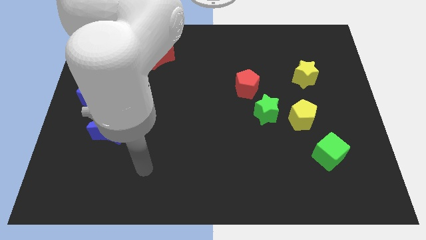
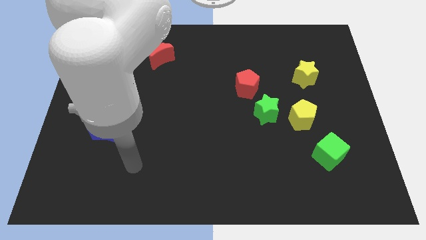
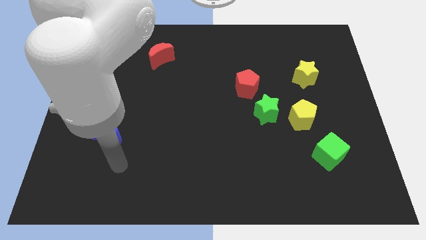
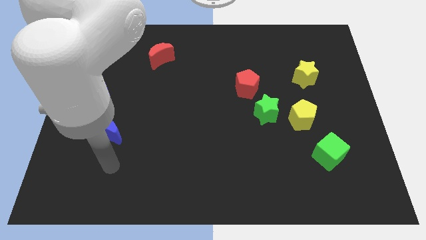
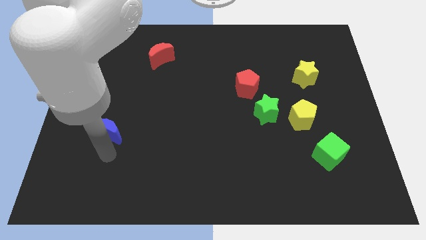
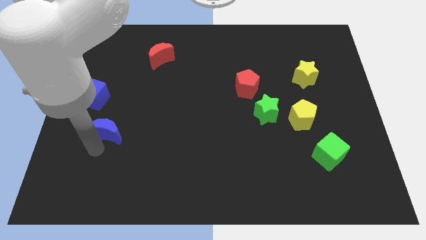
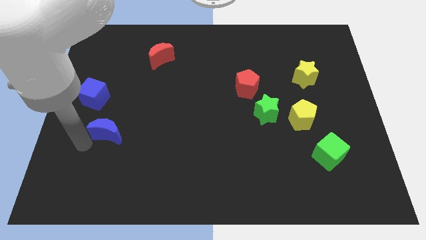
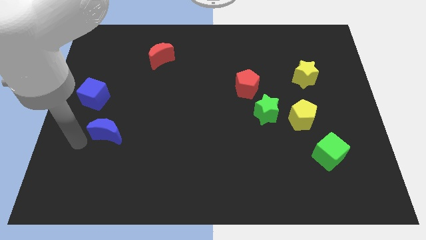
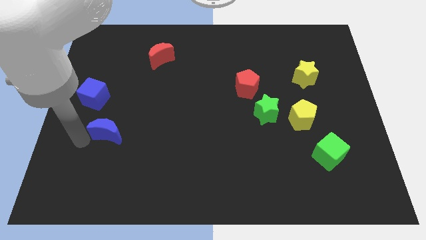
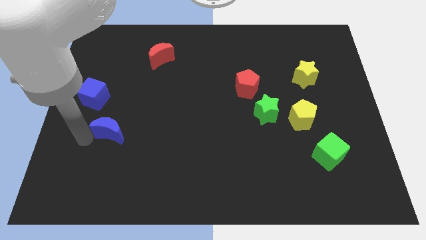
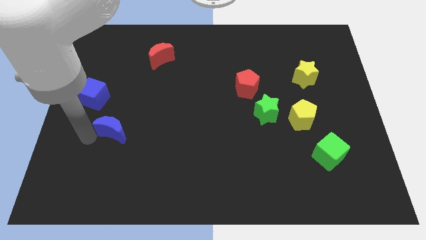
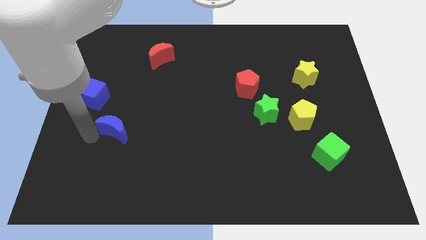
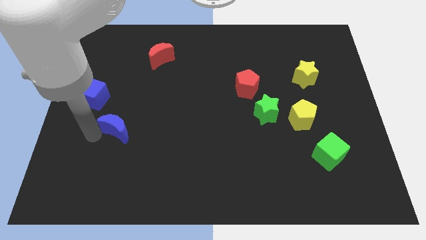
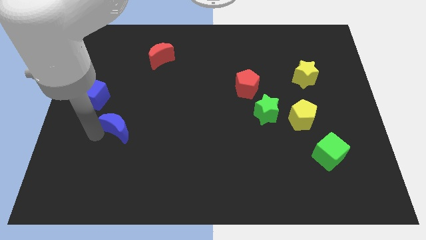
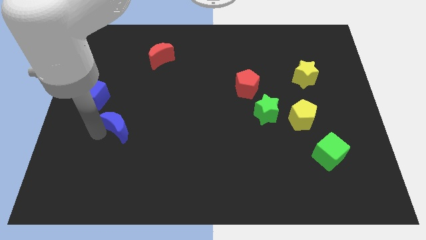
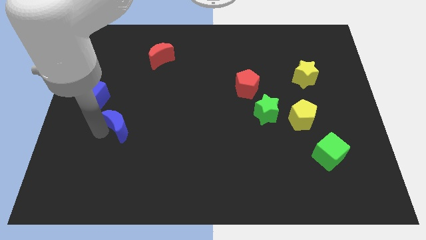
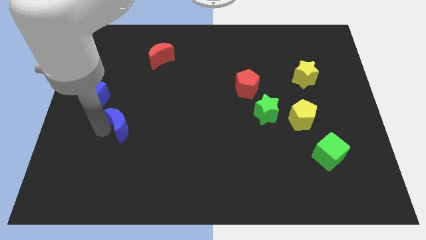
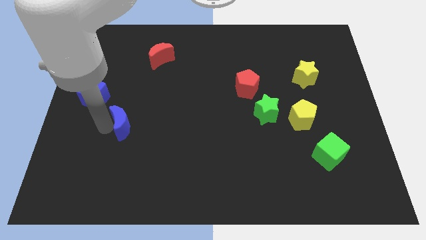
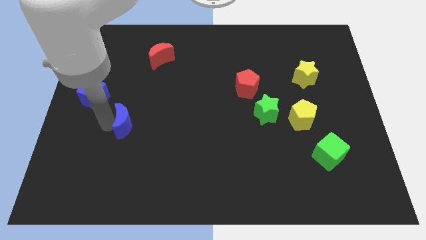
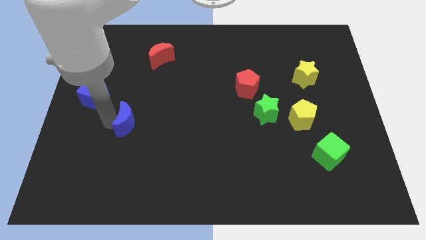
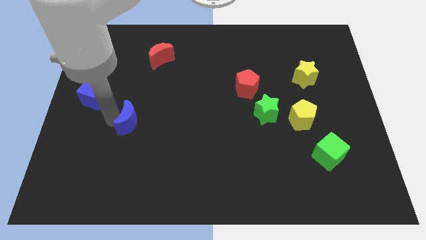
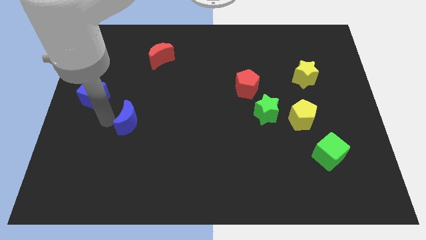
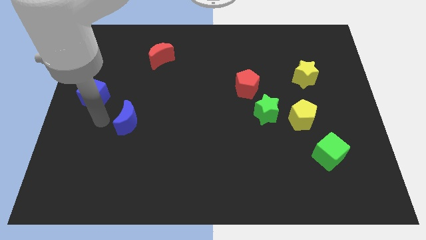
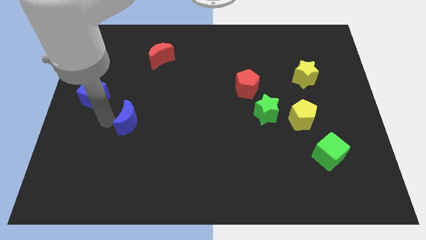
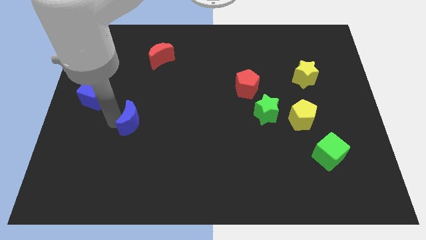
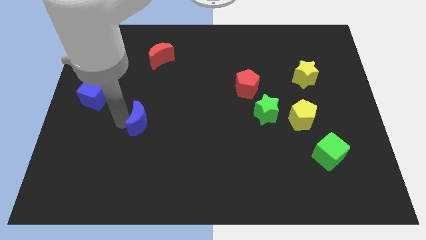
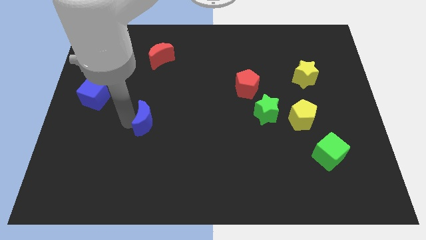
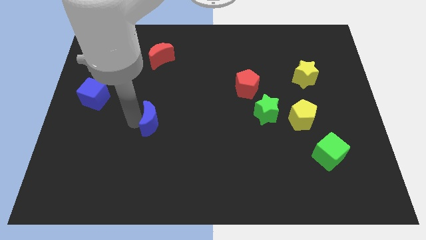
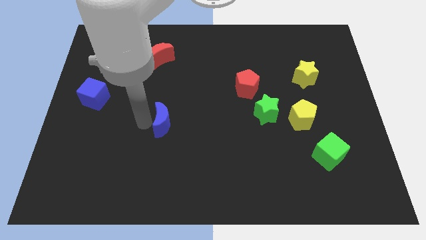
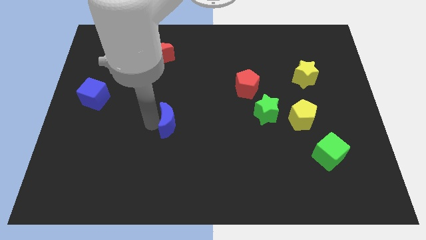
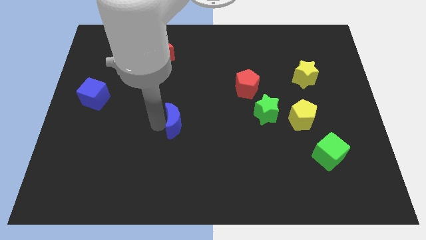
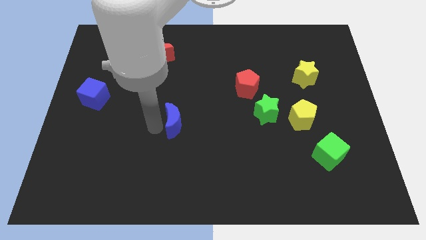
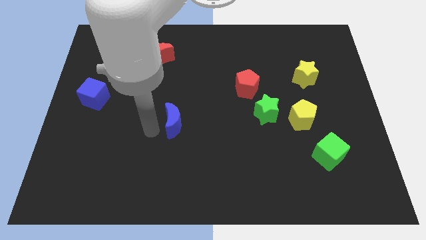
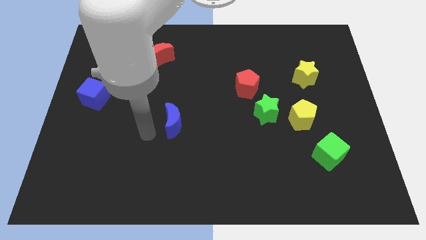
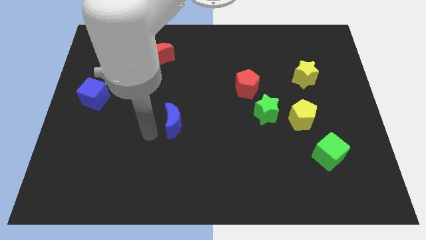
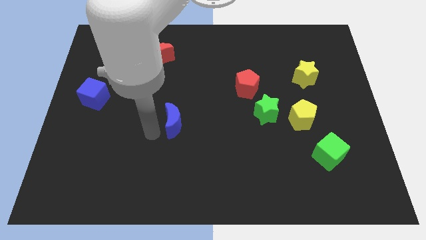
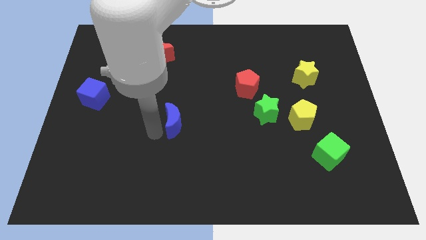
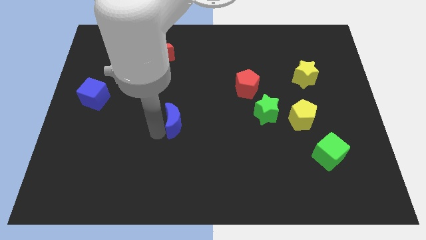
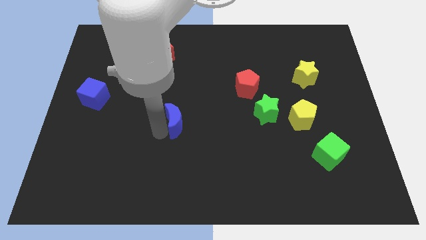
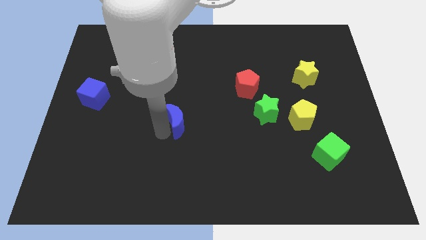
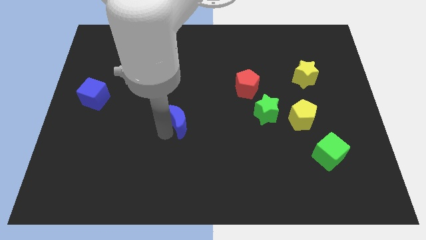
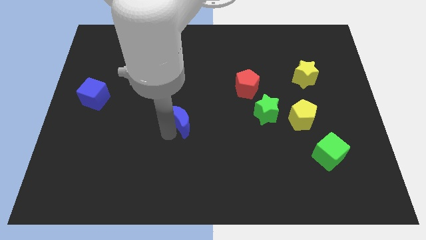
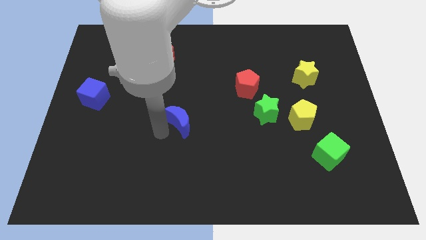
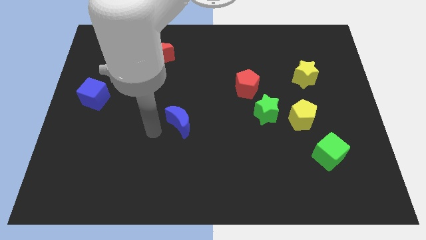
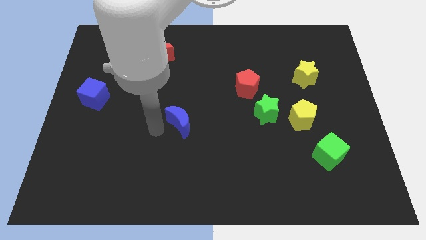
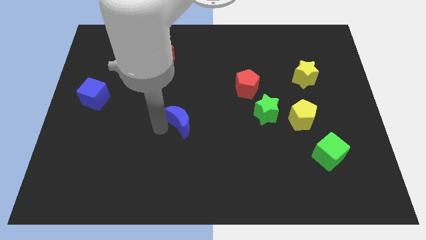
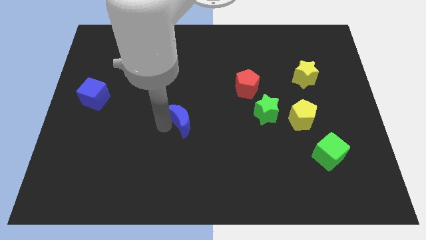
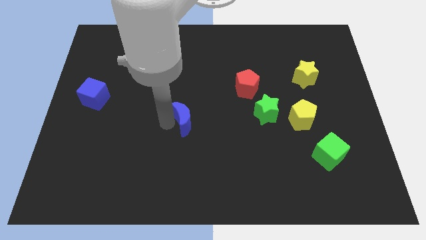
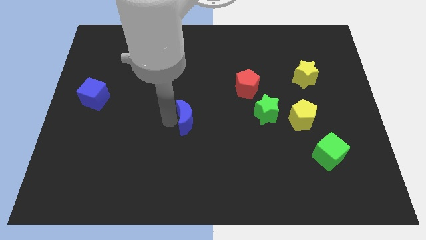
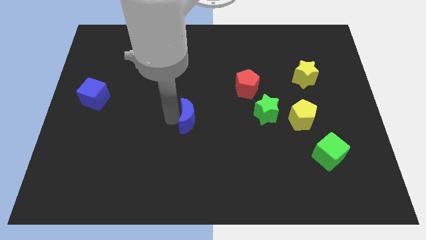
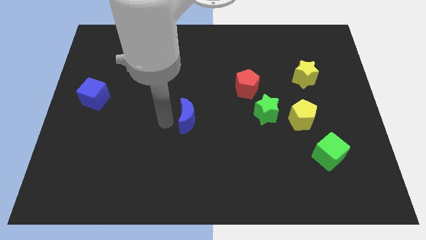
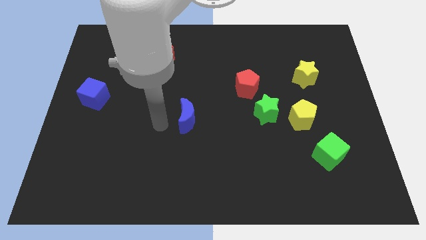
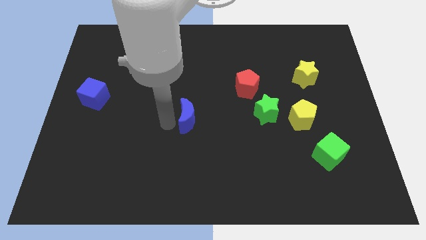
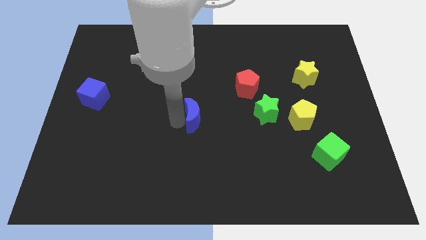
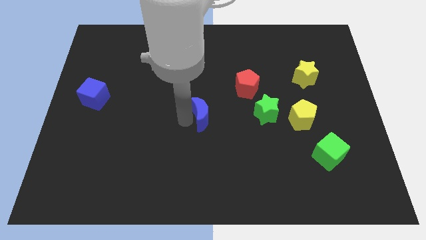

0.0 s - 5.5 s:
move the blue moon just left of the green star

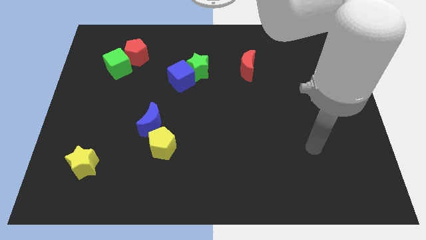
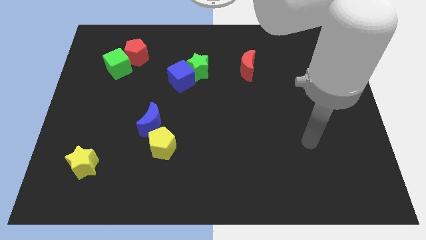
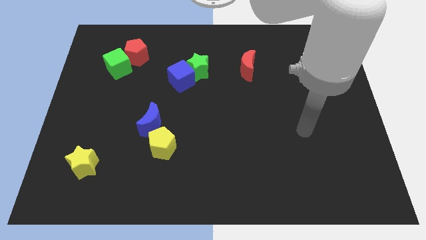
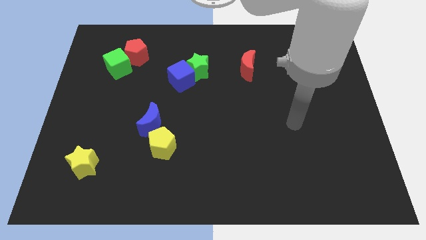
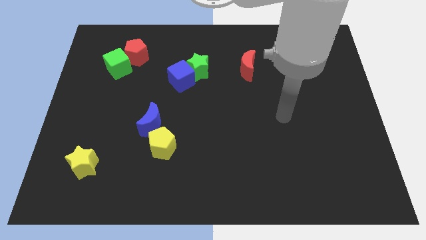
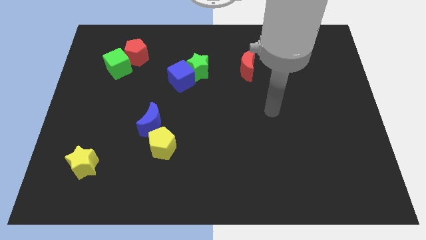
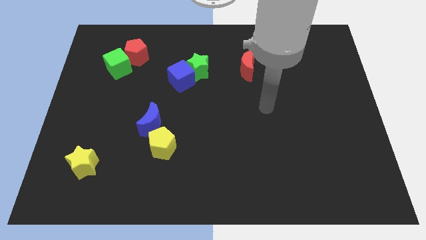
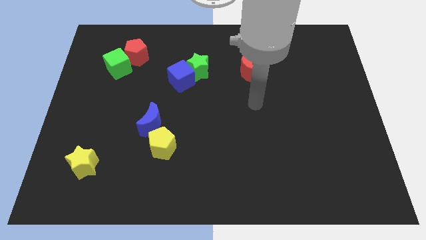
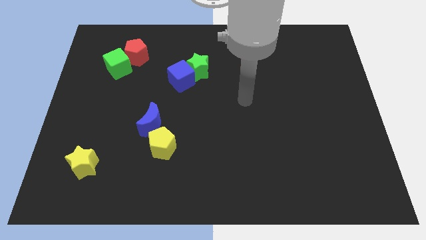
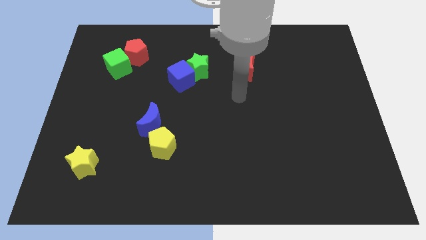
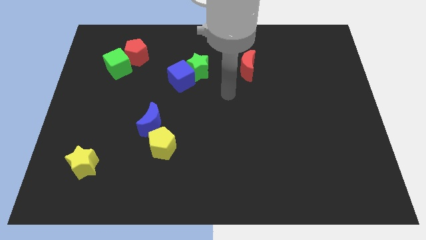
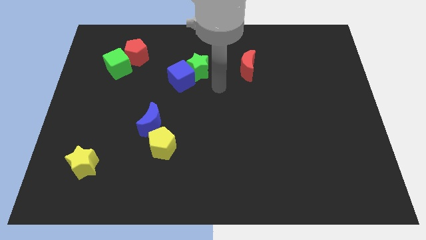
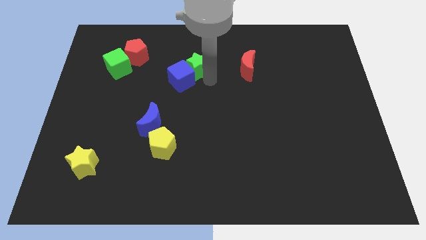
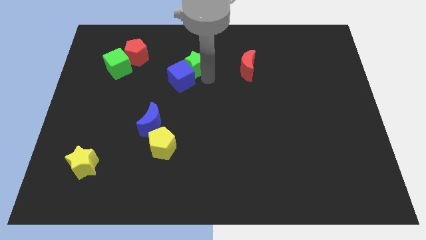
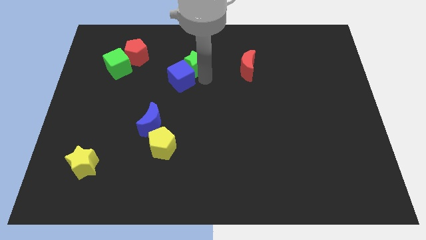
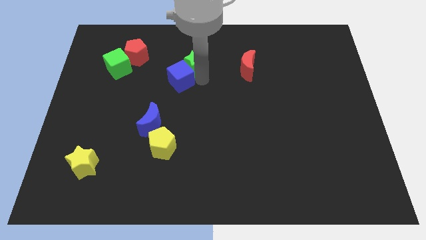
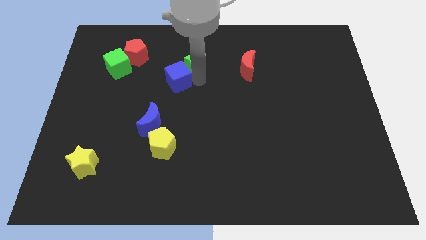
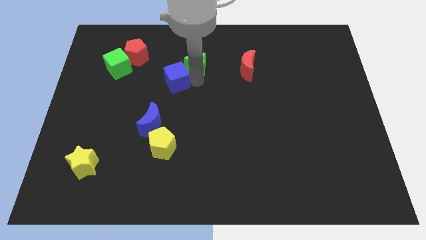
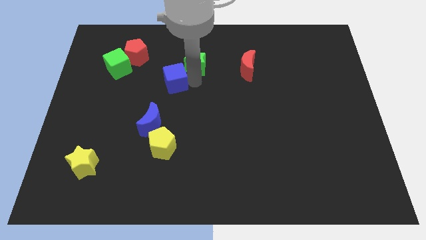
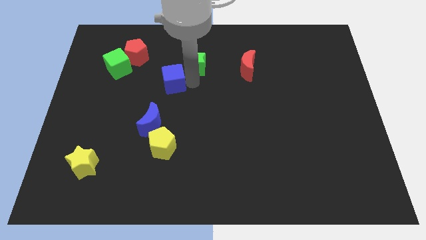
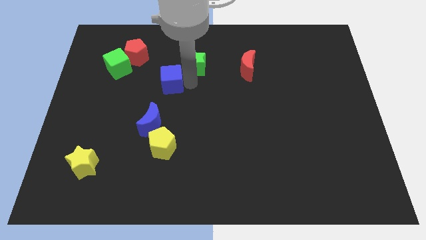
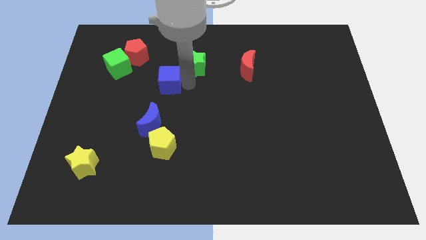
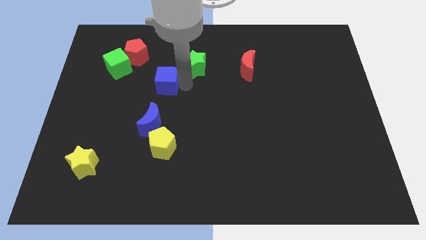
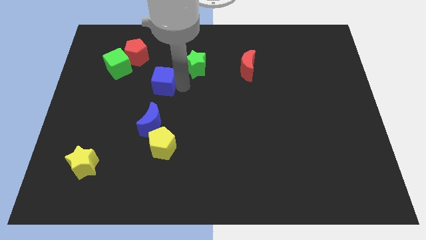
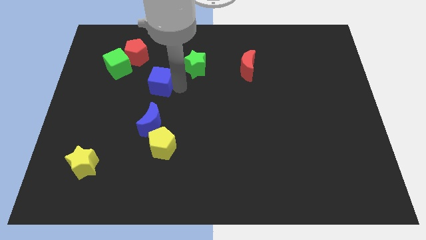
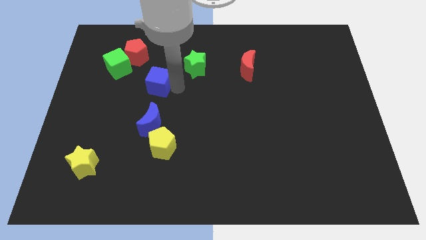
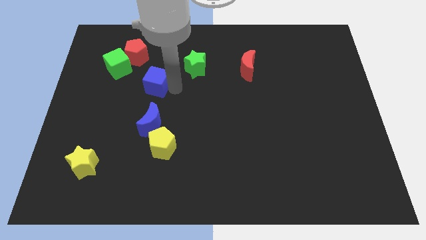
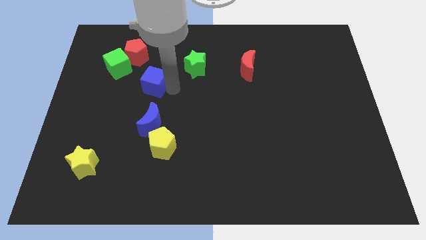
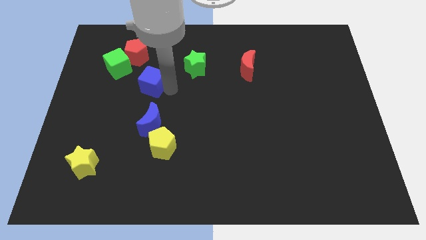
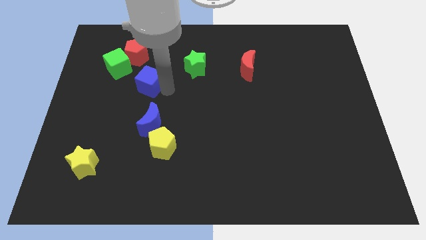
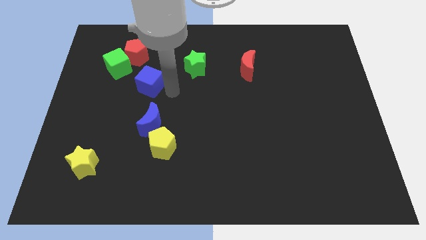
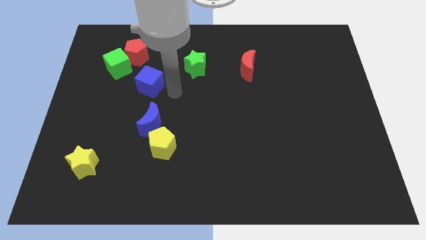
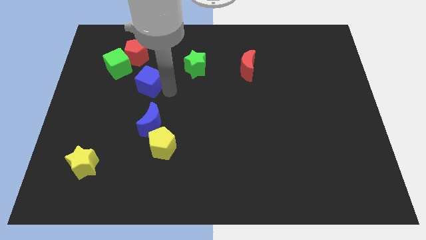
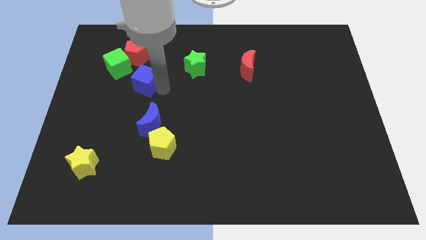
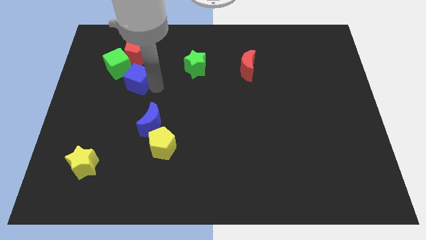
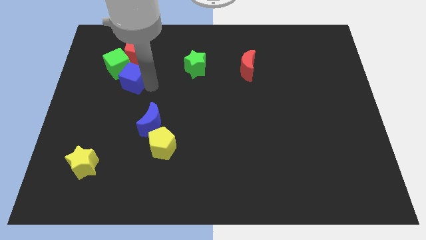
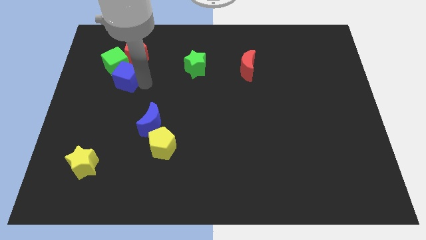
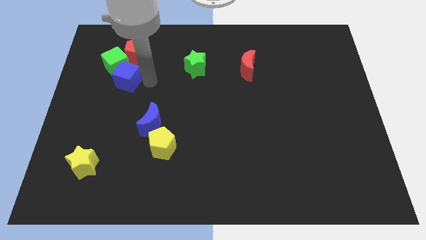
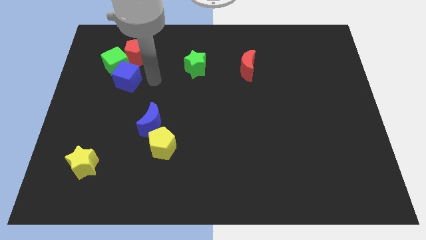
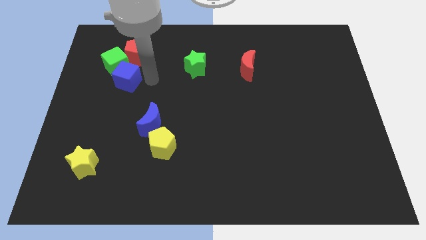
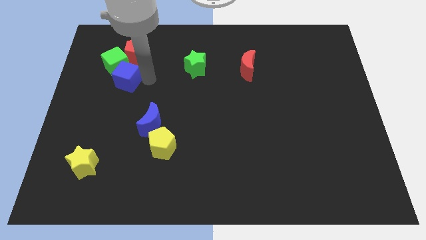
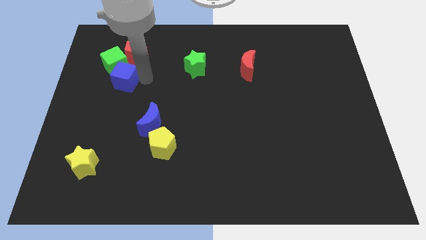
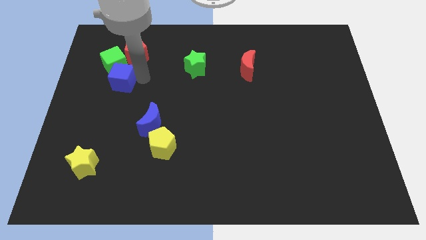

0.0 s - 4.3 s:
slide the blue cube diagonally down and to the left of the red pentagon
